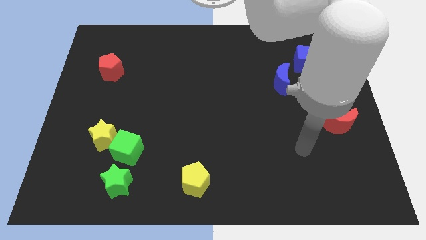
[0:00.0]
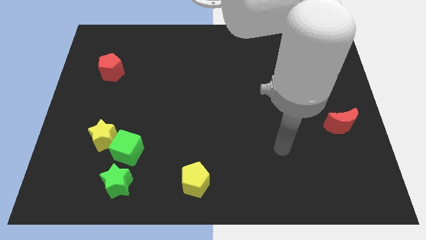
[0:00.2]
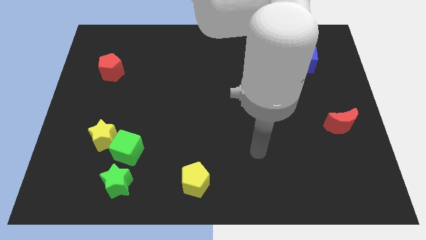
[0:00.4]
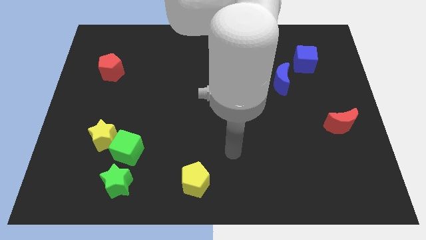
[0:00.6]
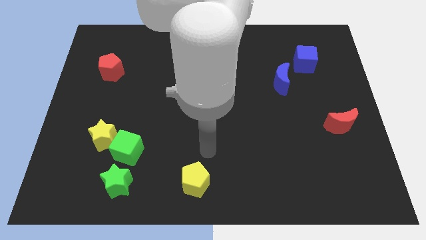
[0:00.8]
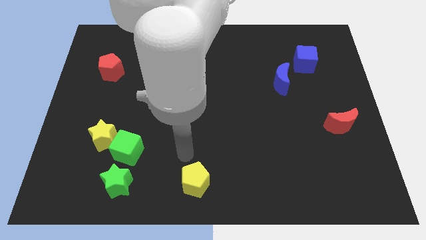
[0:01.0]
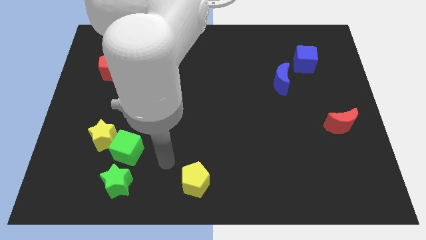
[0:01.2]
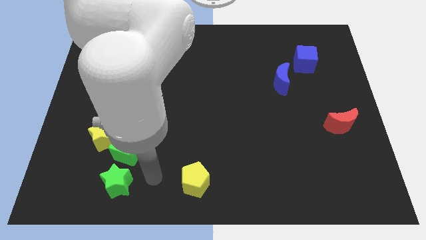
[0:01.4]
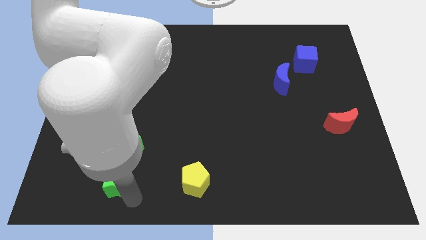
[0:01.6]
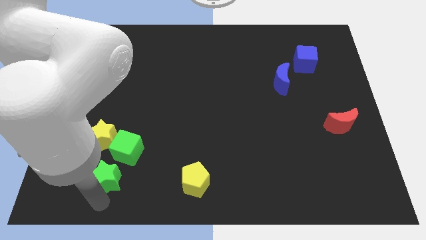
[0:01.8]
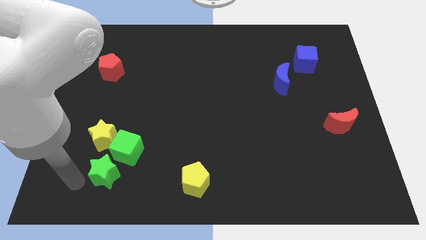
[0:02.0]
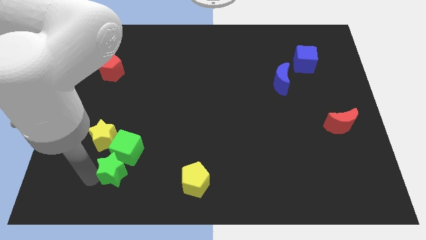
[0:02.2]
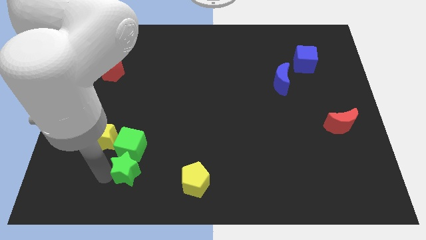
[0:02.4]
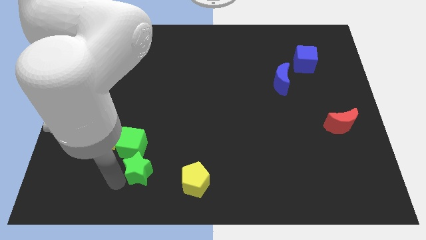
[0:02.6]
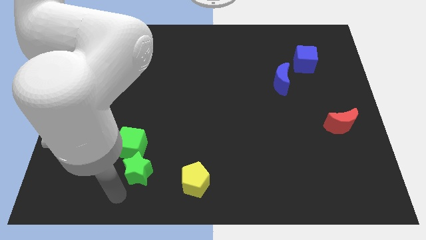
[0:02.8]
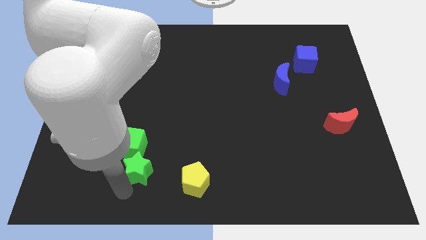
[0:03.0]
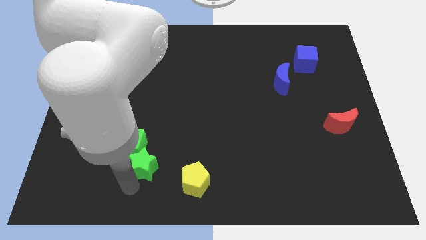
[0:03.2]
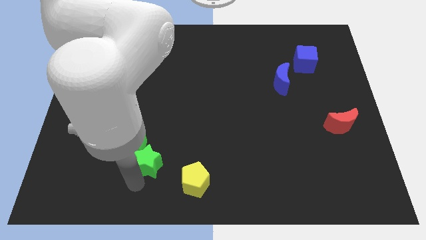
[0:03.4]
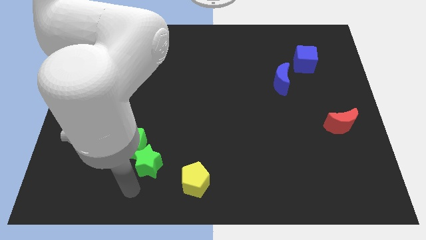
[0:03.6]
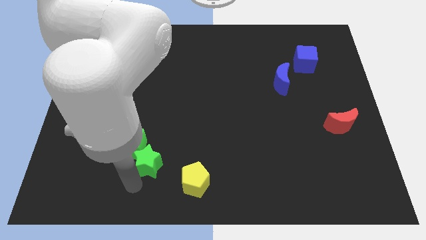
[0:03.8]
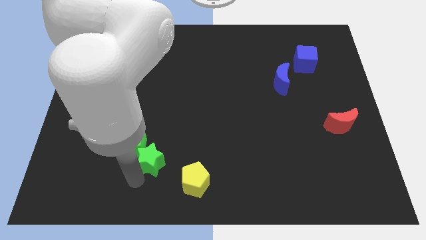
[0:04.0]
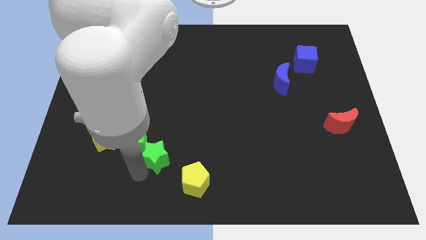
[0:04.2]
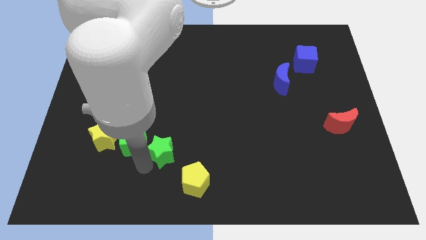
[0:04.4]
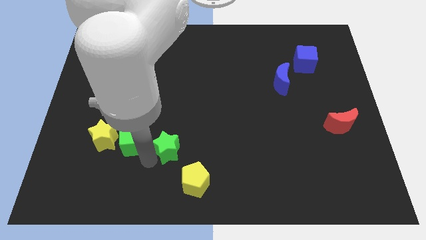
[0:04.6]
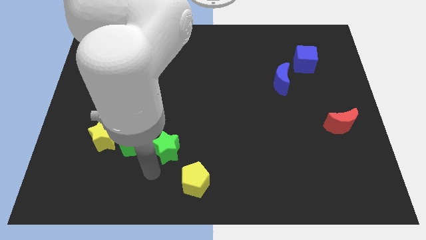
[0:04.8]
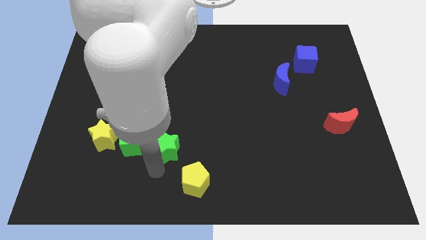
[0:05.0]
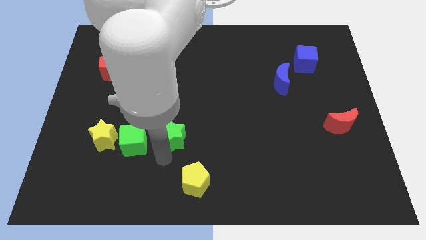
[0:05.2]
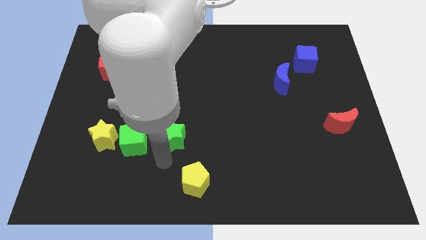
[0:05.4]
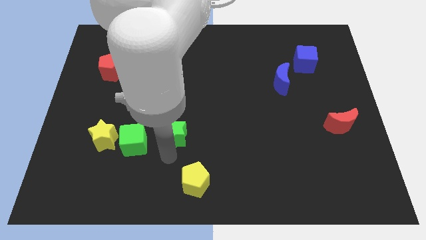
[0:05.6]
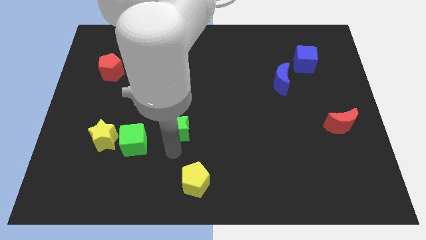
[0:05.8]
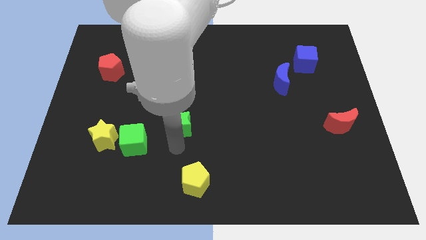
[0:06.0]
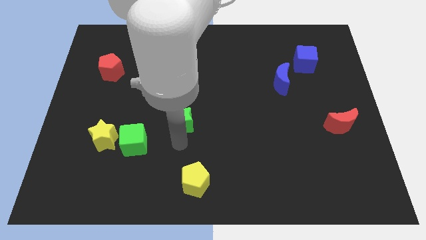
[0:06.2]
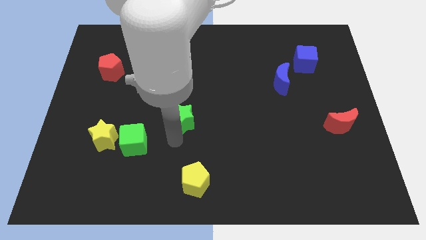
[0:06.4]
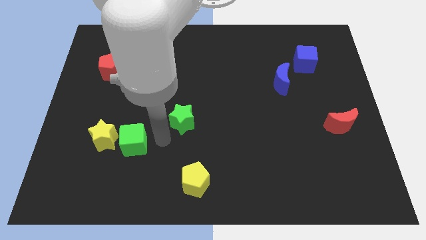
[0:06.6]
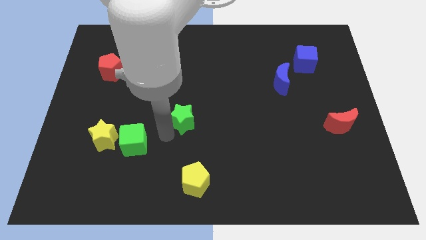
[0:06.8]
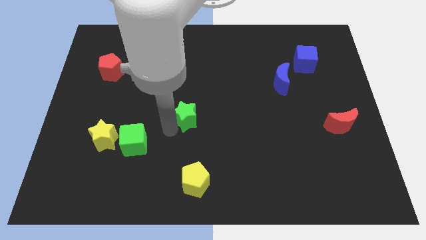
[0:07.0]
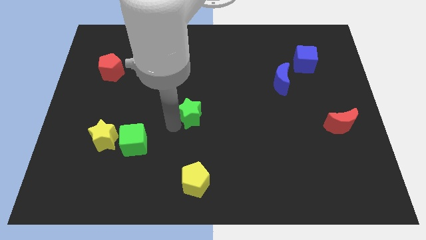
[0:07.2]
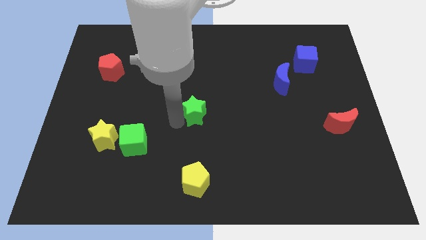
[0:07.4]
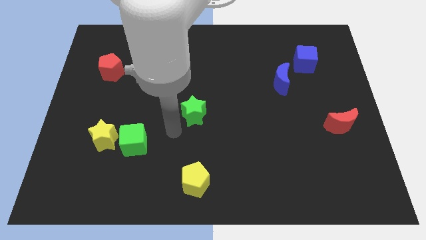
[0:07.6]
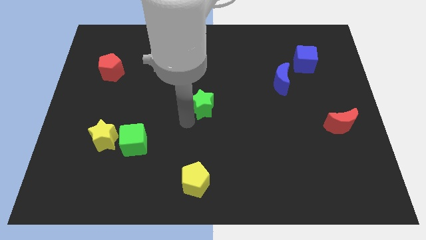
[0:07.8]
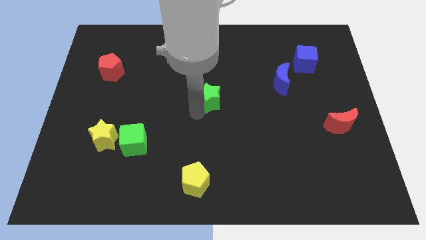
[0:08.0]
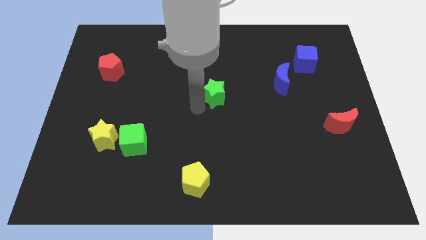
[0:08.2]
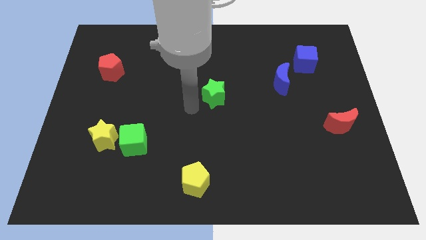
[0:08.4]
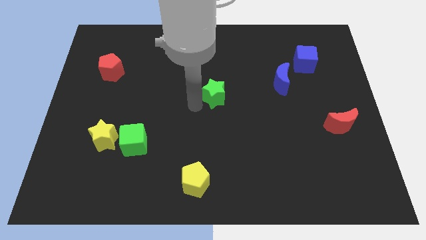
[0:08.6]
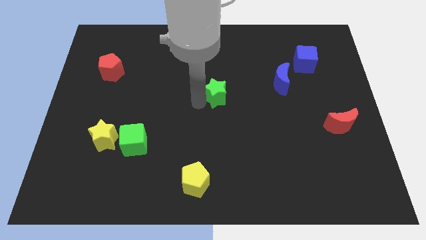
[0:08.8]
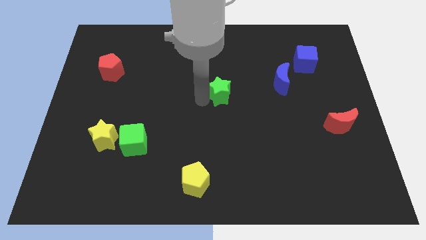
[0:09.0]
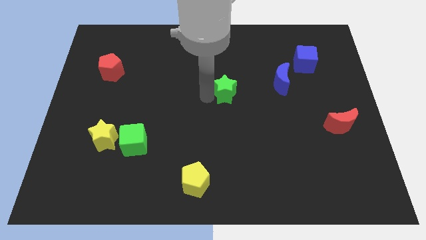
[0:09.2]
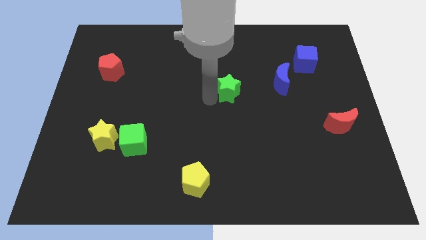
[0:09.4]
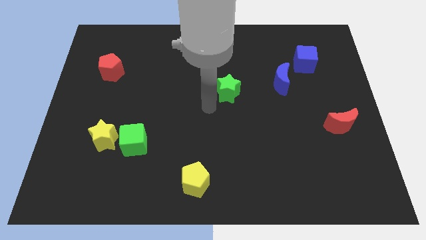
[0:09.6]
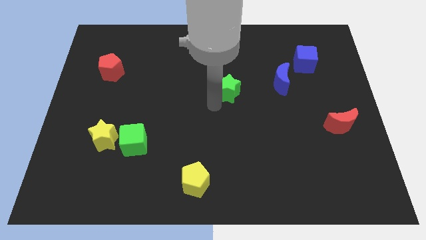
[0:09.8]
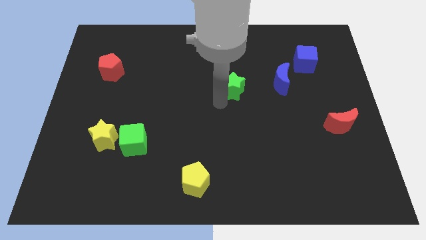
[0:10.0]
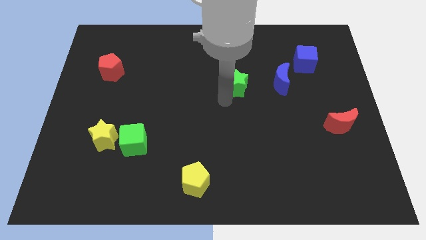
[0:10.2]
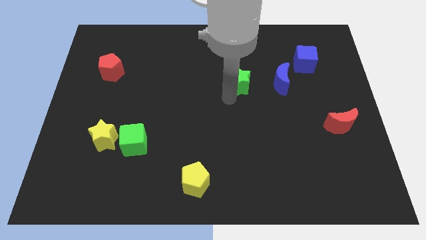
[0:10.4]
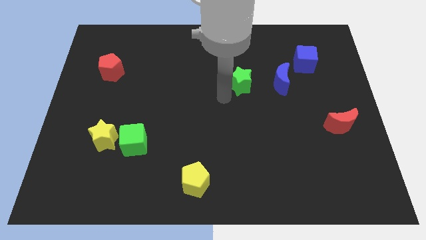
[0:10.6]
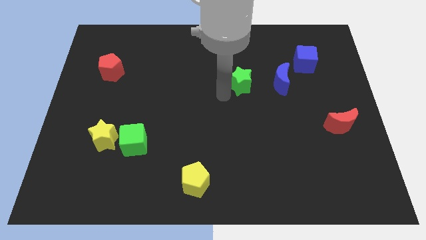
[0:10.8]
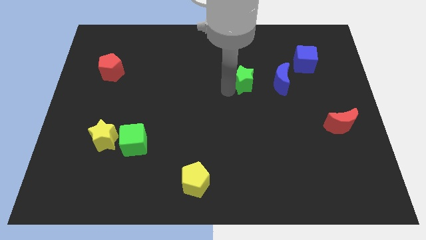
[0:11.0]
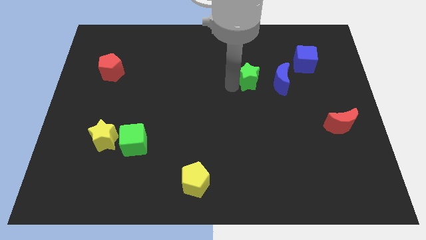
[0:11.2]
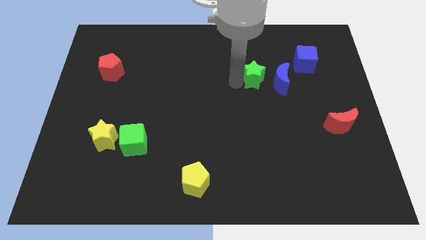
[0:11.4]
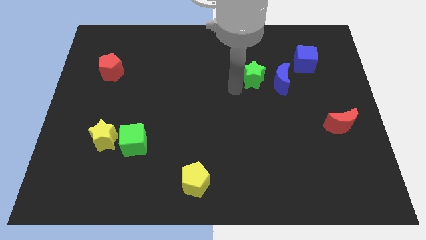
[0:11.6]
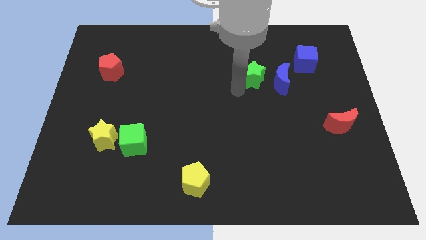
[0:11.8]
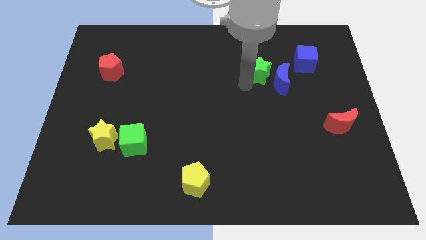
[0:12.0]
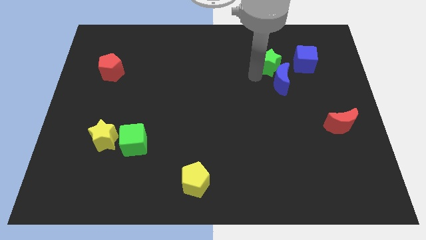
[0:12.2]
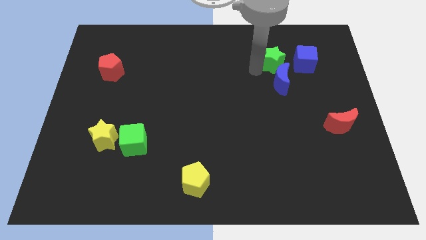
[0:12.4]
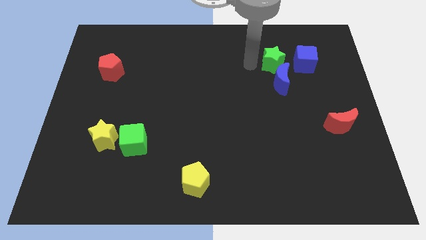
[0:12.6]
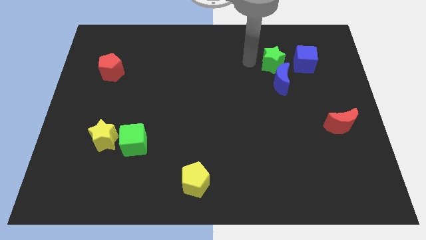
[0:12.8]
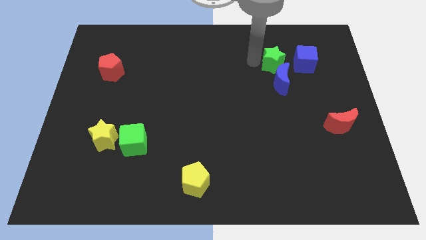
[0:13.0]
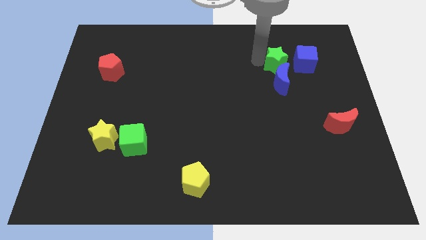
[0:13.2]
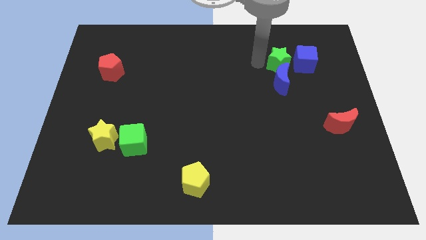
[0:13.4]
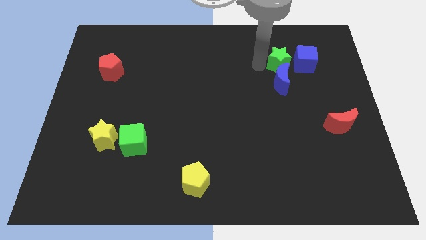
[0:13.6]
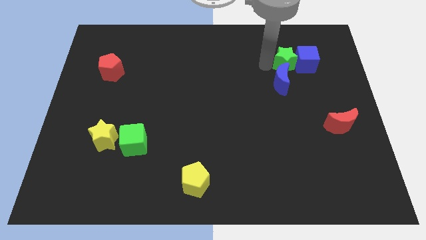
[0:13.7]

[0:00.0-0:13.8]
put the green star to the blue cube
